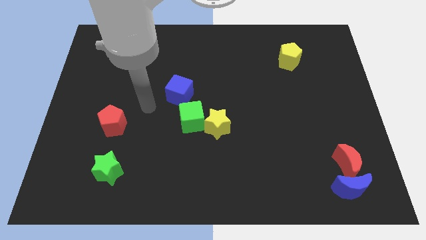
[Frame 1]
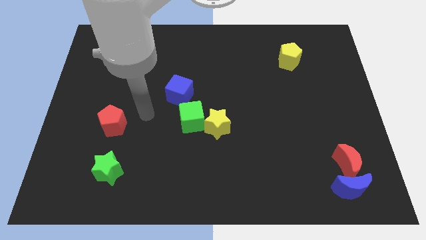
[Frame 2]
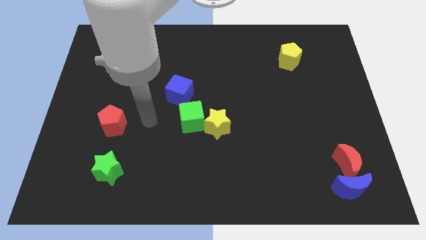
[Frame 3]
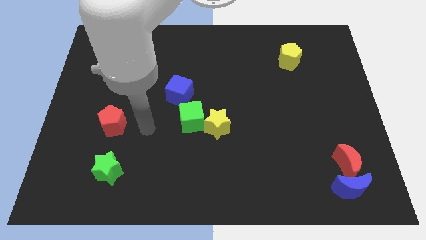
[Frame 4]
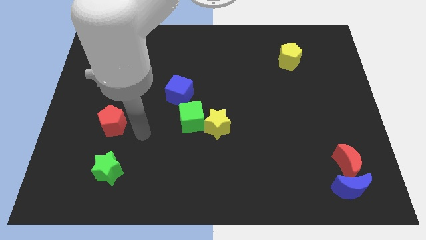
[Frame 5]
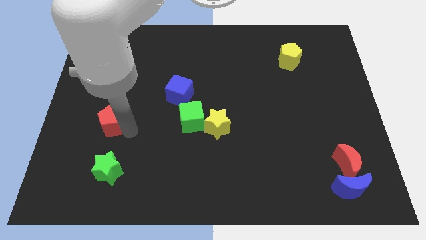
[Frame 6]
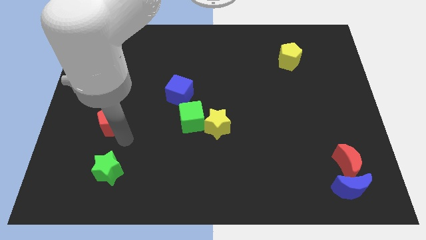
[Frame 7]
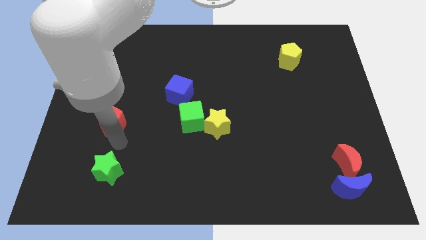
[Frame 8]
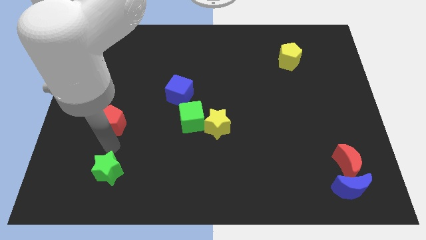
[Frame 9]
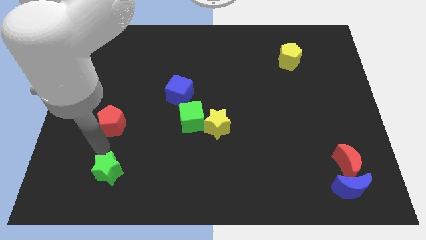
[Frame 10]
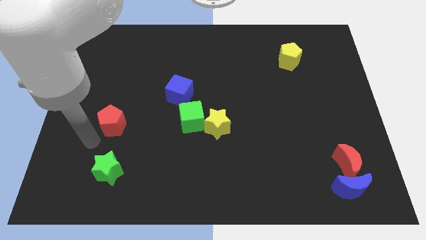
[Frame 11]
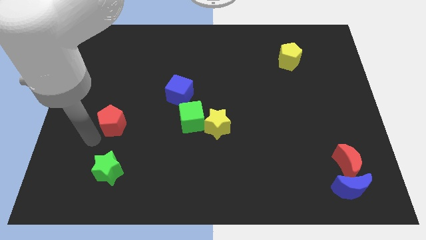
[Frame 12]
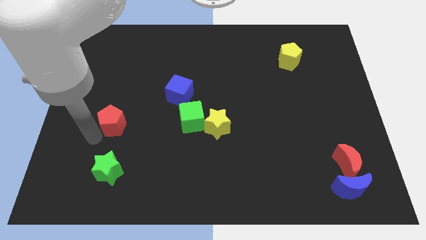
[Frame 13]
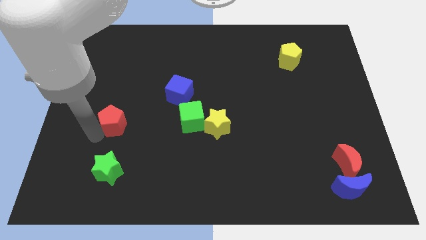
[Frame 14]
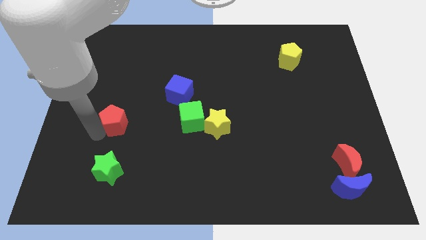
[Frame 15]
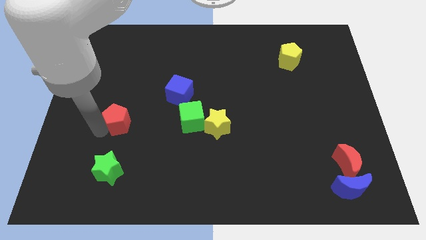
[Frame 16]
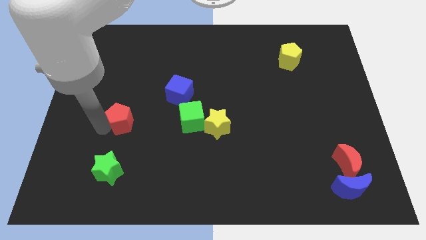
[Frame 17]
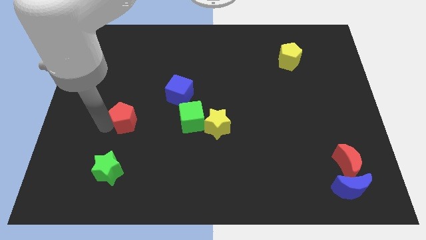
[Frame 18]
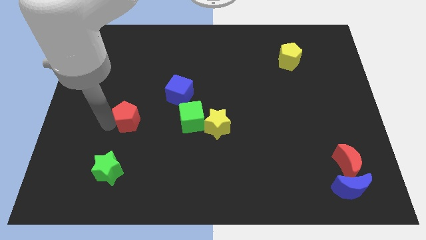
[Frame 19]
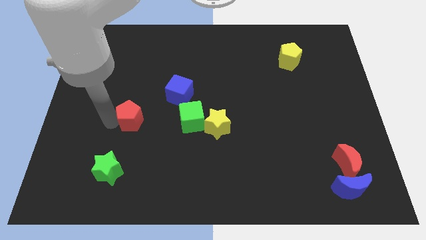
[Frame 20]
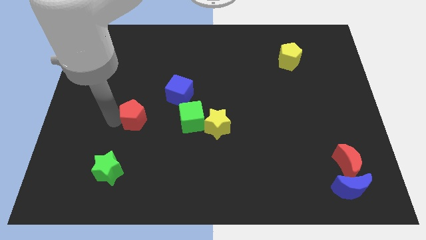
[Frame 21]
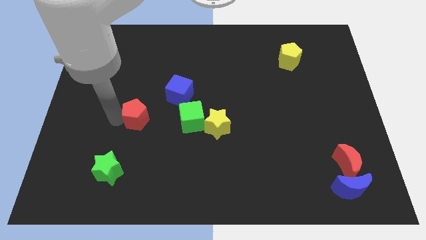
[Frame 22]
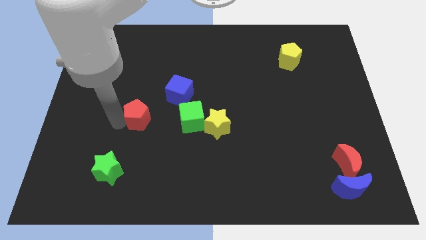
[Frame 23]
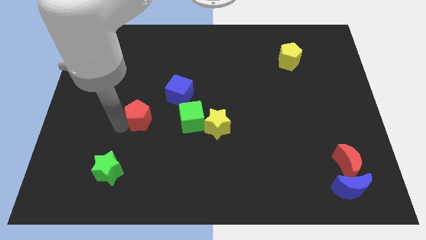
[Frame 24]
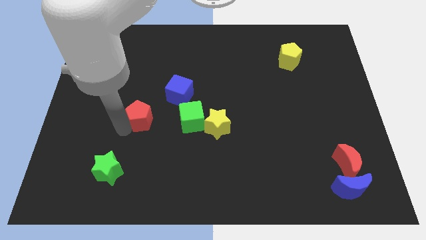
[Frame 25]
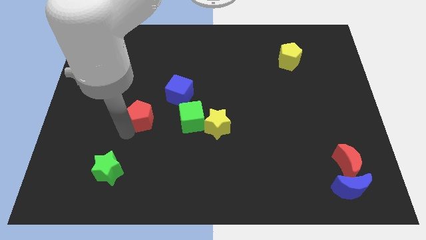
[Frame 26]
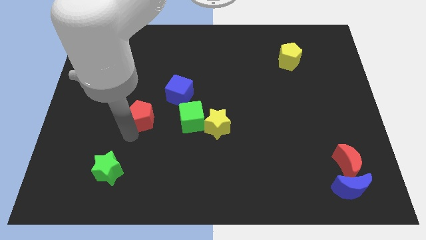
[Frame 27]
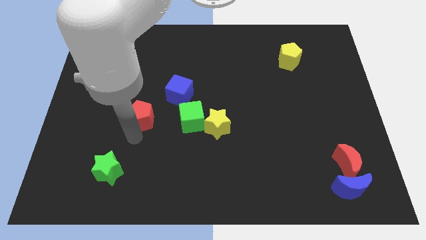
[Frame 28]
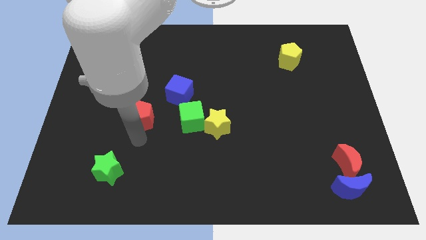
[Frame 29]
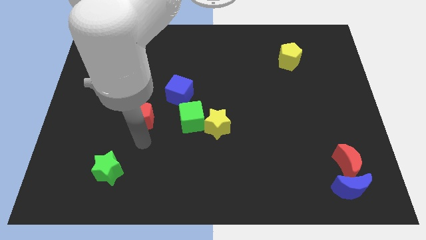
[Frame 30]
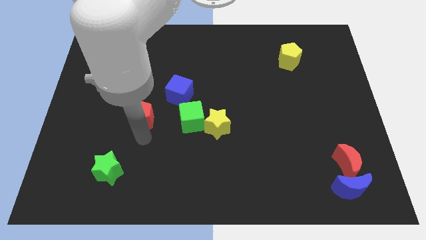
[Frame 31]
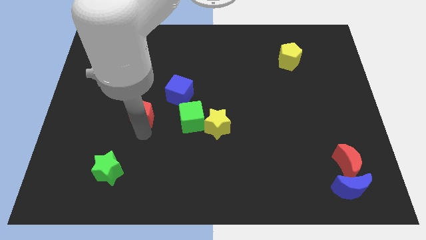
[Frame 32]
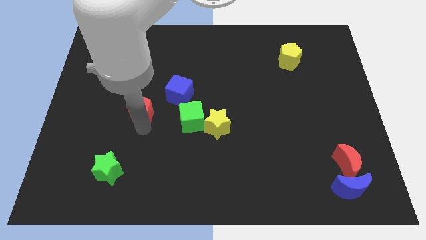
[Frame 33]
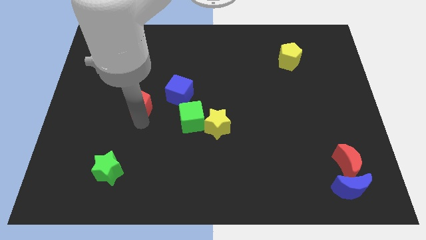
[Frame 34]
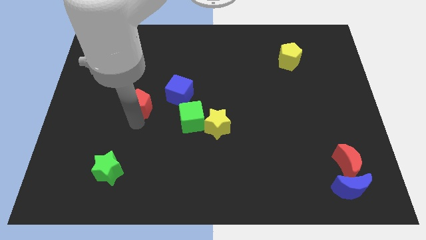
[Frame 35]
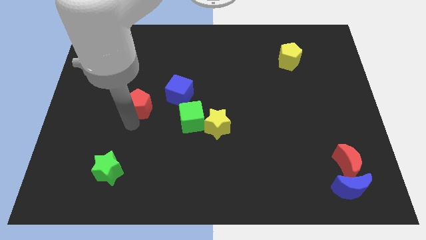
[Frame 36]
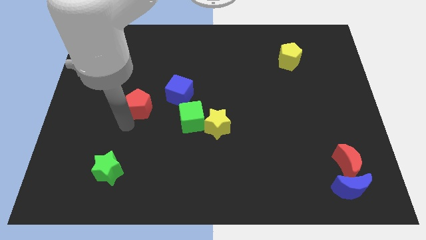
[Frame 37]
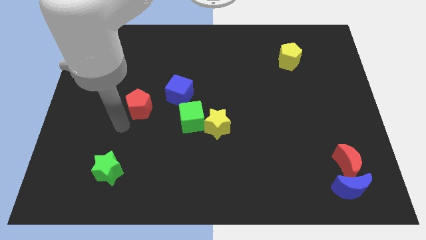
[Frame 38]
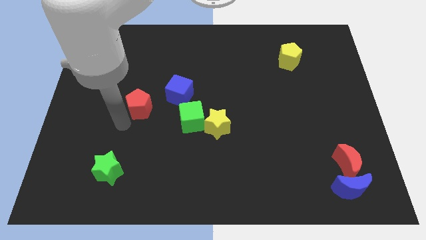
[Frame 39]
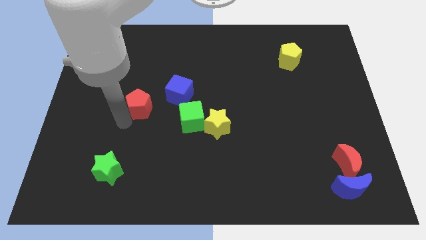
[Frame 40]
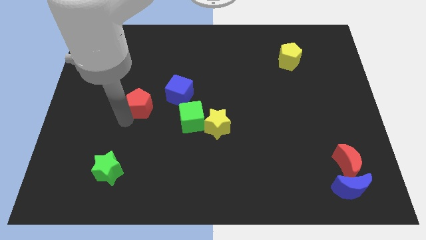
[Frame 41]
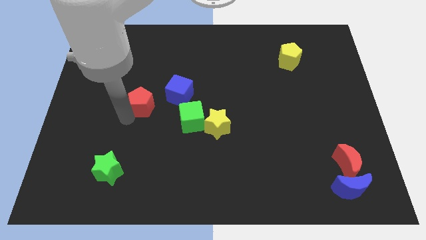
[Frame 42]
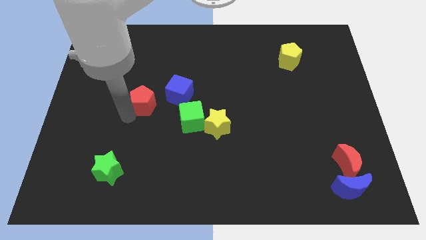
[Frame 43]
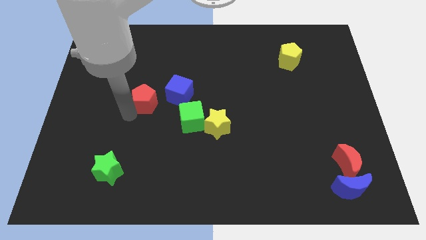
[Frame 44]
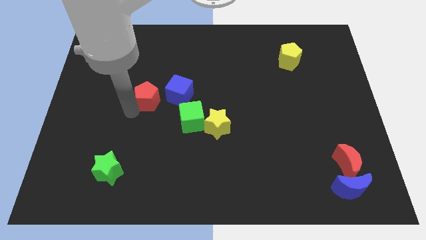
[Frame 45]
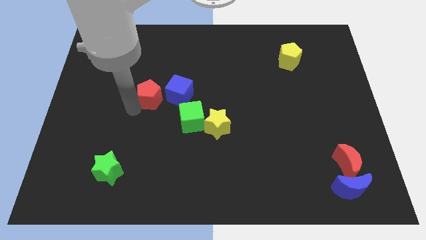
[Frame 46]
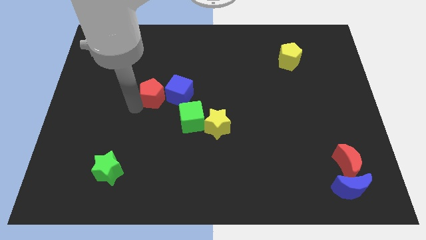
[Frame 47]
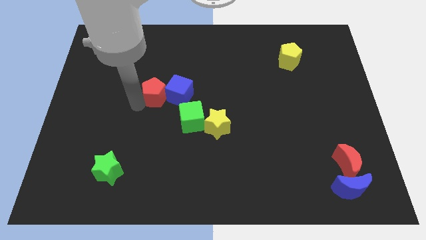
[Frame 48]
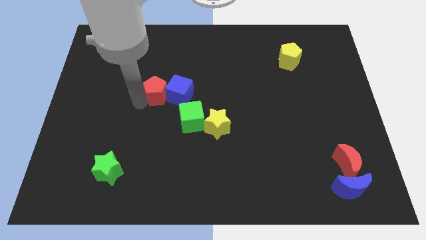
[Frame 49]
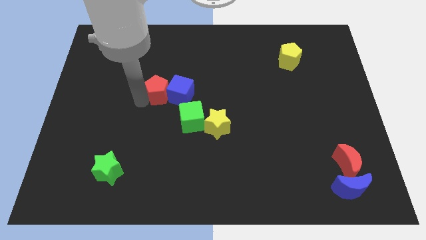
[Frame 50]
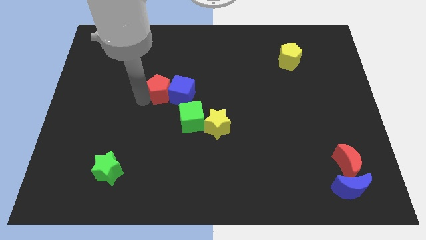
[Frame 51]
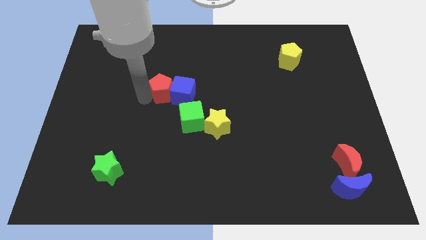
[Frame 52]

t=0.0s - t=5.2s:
push the red pentagon to the middle of the board

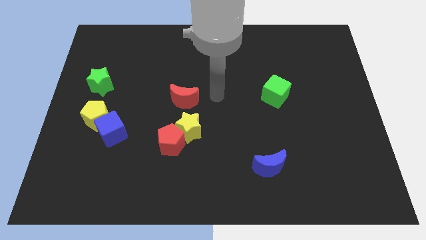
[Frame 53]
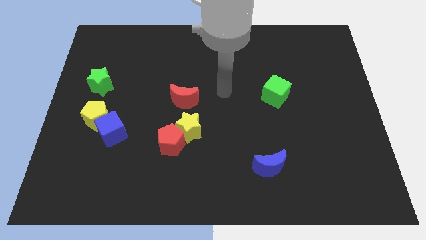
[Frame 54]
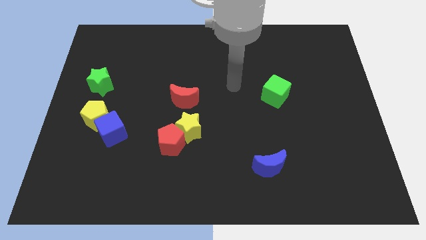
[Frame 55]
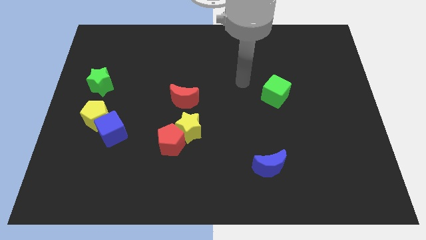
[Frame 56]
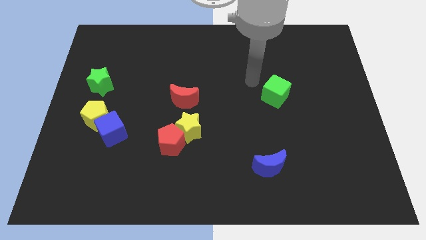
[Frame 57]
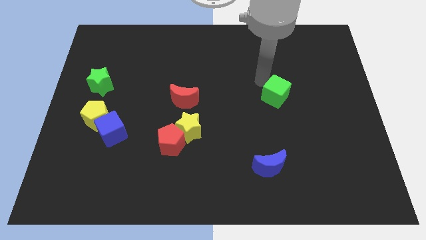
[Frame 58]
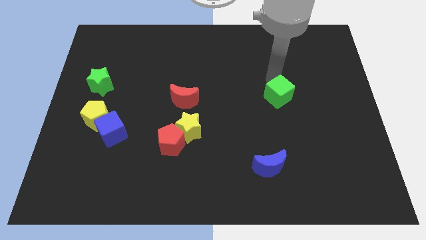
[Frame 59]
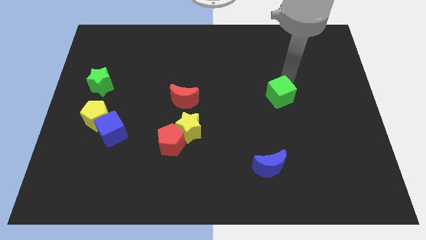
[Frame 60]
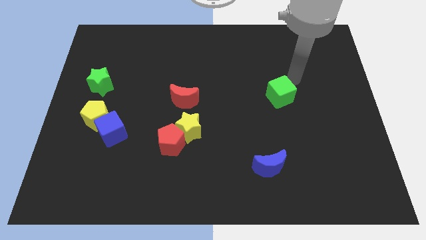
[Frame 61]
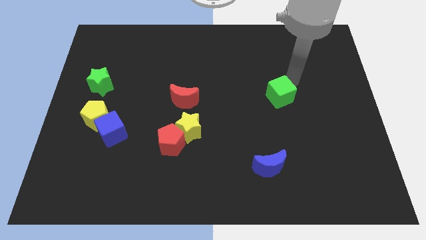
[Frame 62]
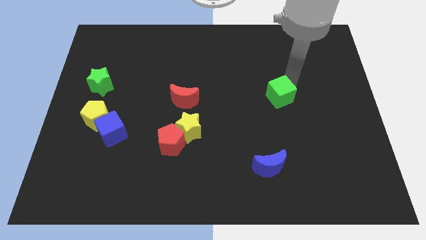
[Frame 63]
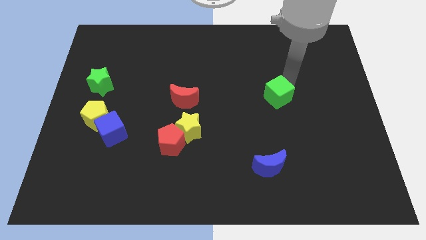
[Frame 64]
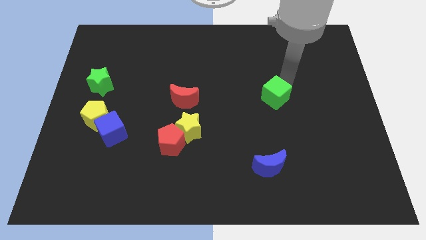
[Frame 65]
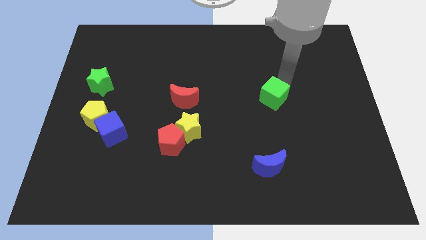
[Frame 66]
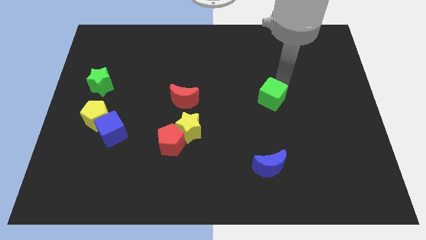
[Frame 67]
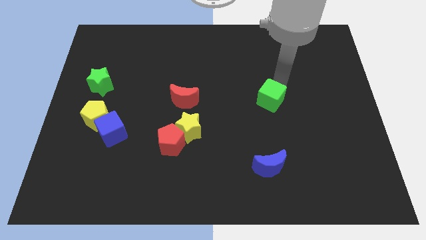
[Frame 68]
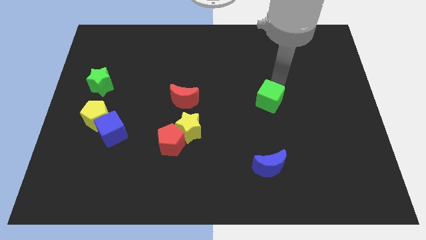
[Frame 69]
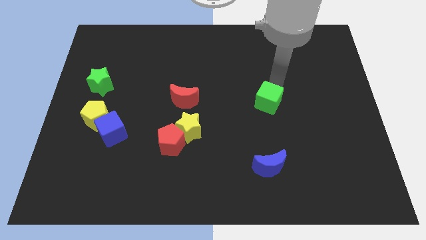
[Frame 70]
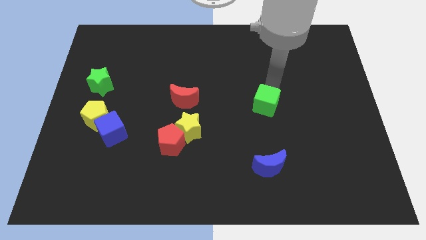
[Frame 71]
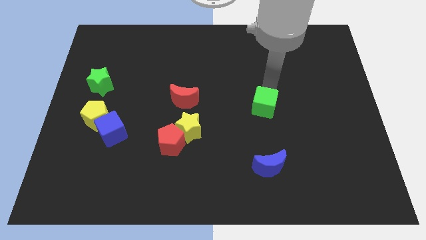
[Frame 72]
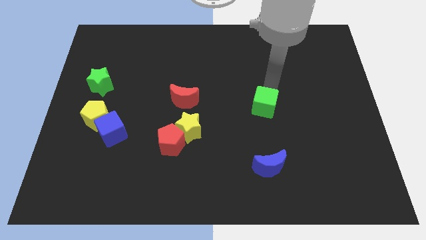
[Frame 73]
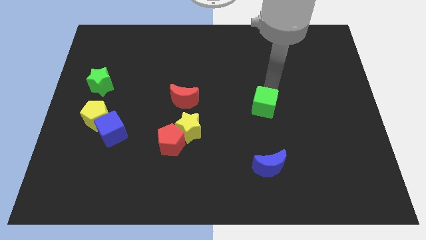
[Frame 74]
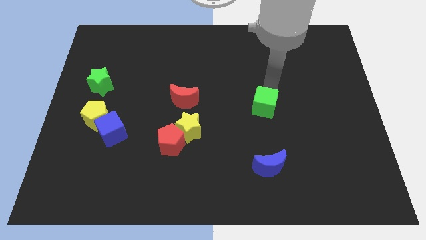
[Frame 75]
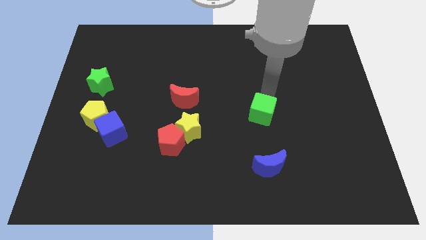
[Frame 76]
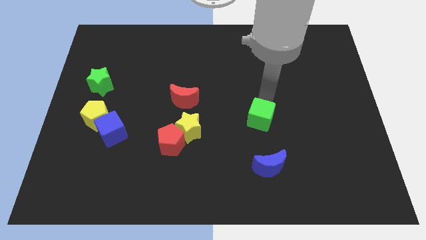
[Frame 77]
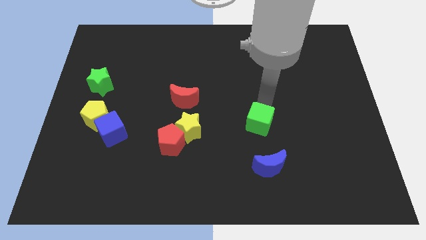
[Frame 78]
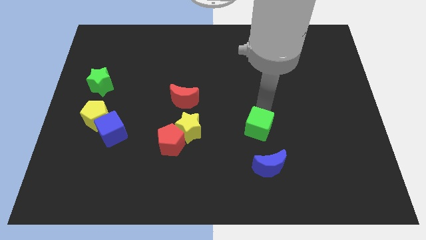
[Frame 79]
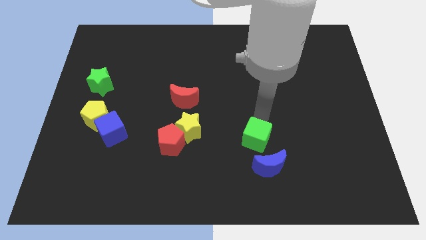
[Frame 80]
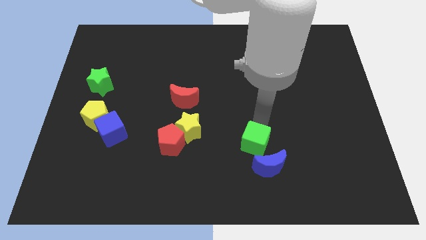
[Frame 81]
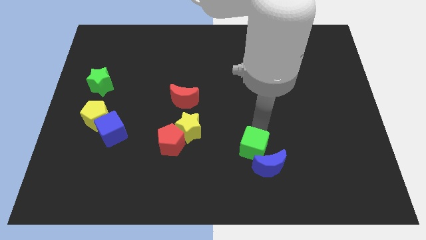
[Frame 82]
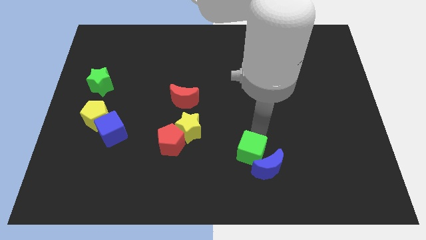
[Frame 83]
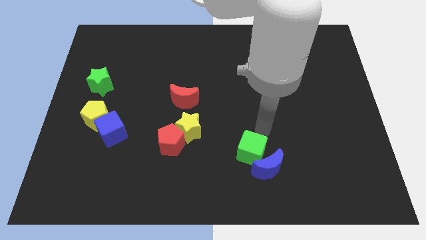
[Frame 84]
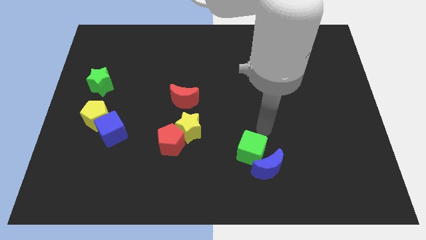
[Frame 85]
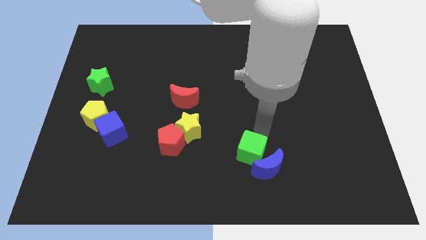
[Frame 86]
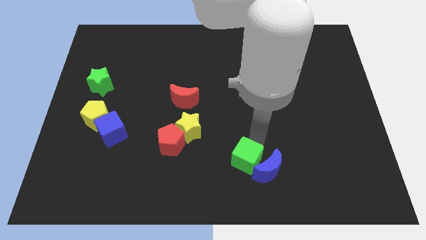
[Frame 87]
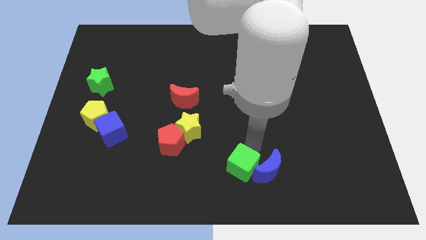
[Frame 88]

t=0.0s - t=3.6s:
slide the green cube to the bottom side
